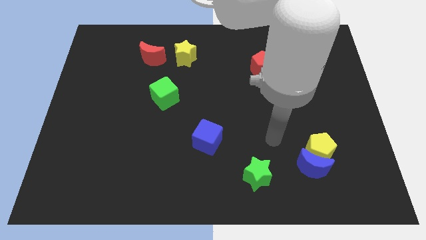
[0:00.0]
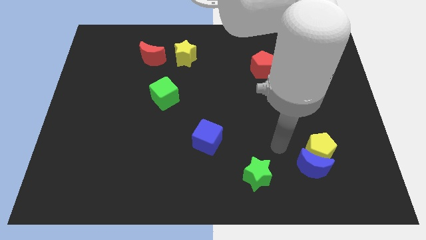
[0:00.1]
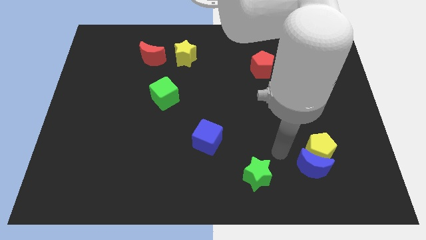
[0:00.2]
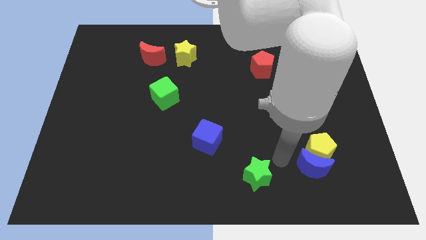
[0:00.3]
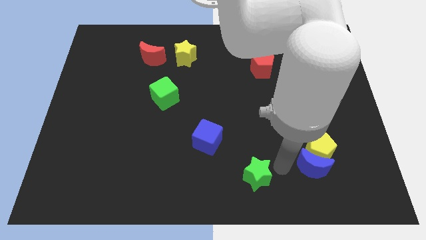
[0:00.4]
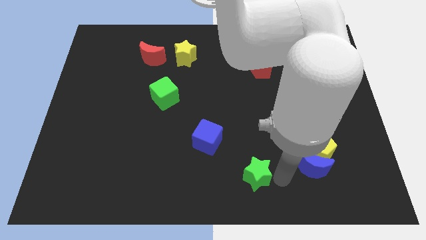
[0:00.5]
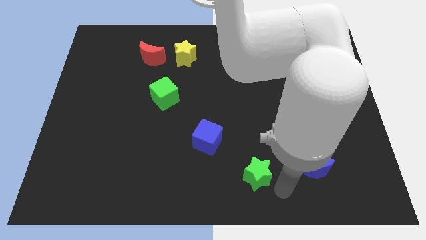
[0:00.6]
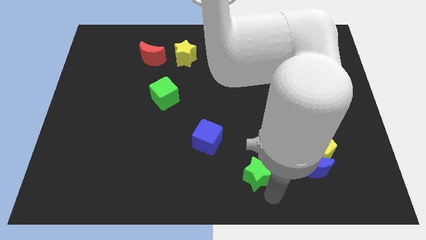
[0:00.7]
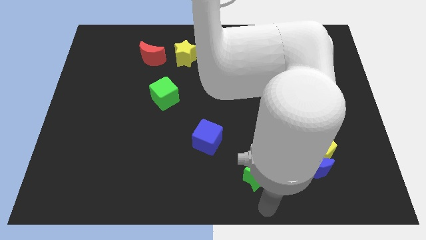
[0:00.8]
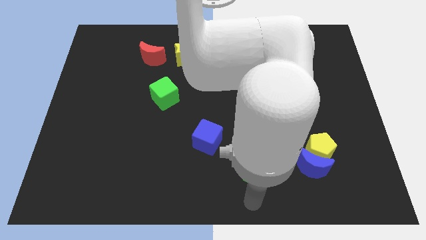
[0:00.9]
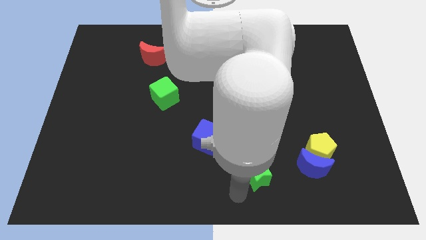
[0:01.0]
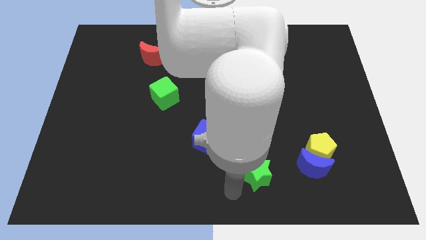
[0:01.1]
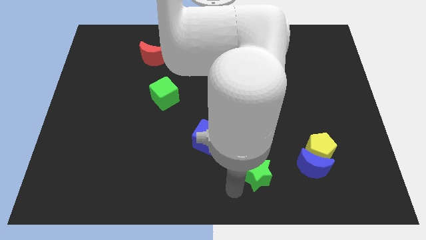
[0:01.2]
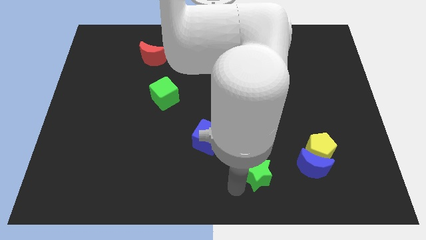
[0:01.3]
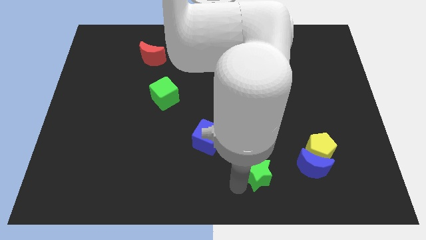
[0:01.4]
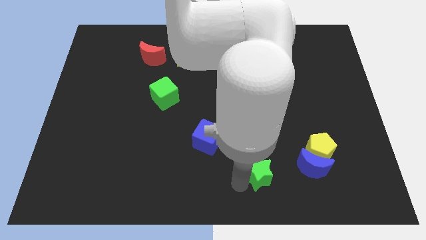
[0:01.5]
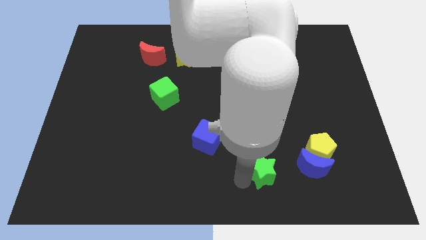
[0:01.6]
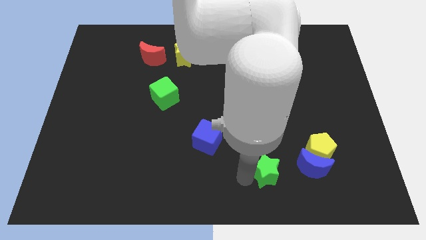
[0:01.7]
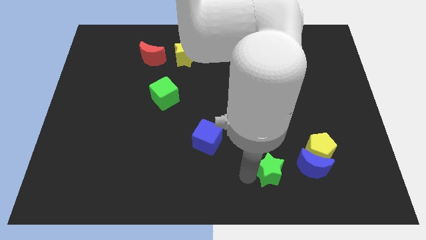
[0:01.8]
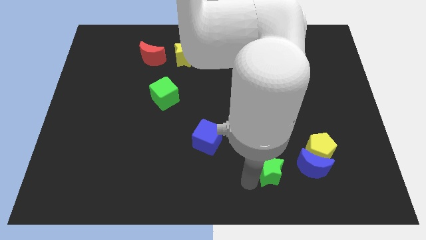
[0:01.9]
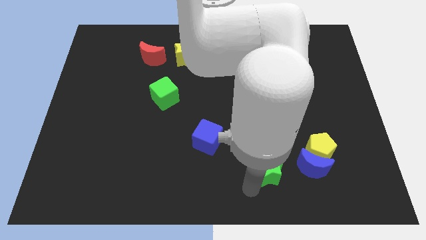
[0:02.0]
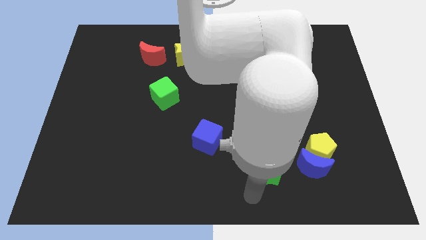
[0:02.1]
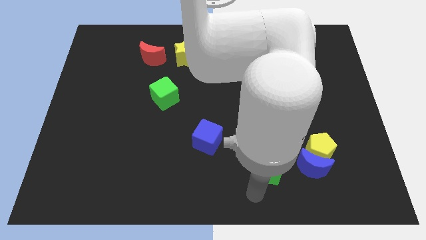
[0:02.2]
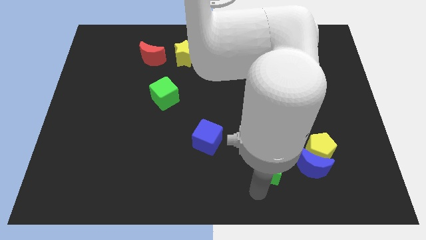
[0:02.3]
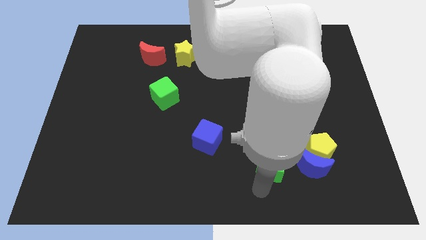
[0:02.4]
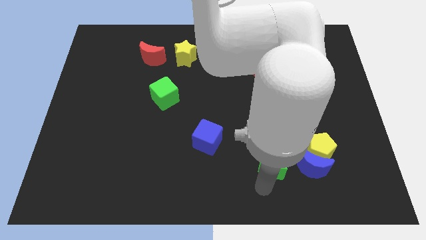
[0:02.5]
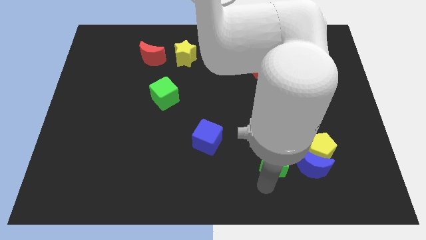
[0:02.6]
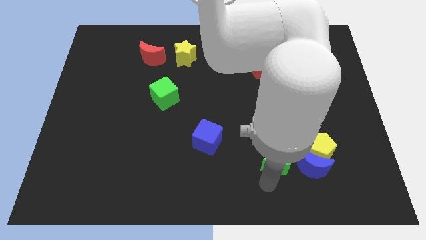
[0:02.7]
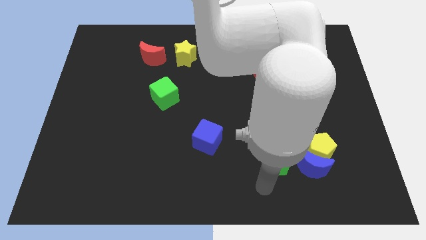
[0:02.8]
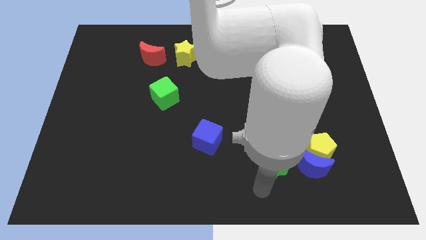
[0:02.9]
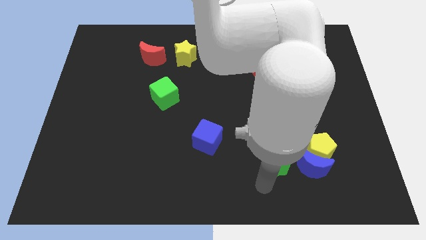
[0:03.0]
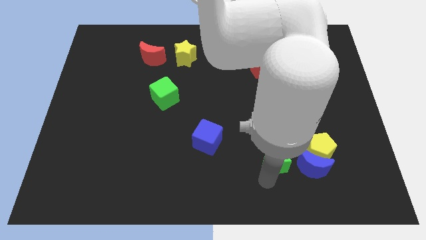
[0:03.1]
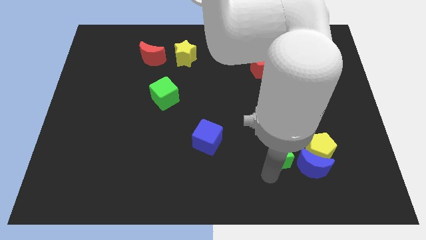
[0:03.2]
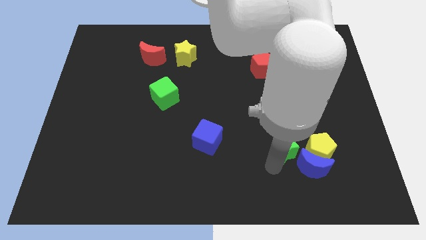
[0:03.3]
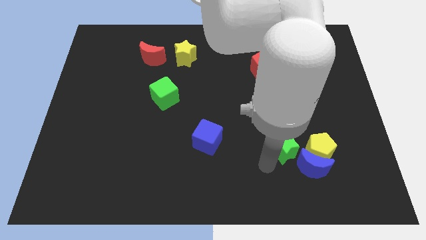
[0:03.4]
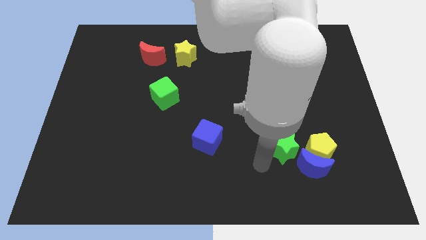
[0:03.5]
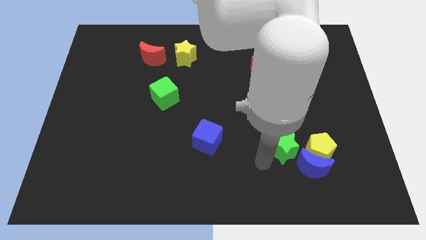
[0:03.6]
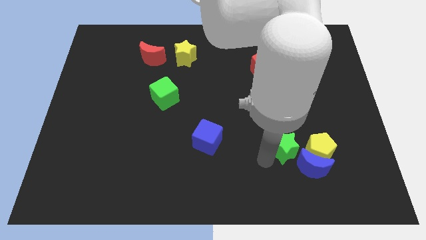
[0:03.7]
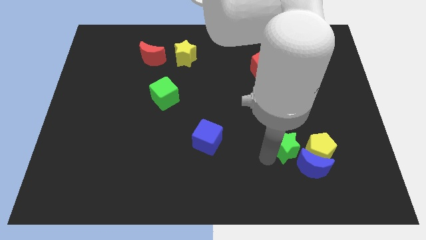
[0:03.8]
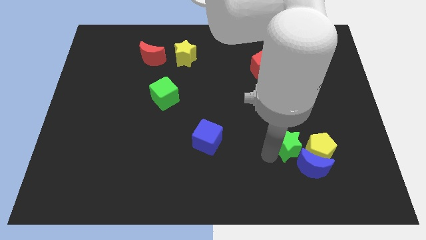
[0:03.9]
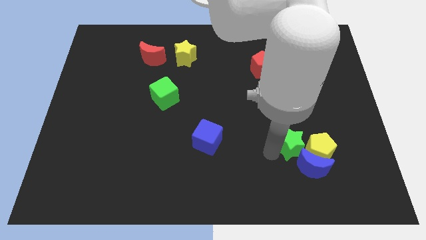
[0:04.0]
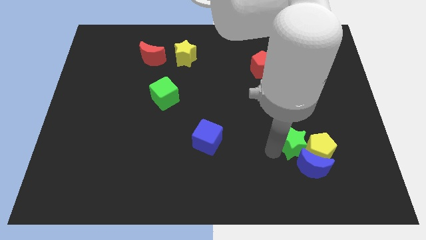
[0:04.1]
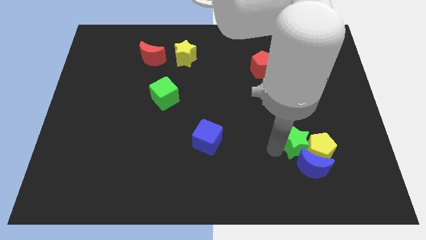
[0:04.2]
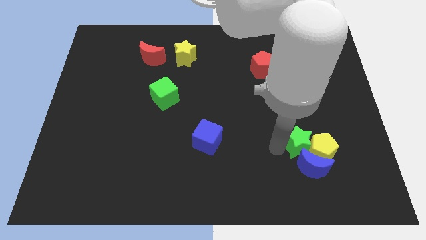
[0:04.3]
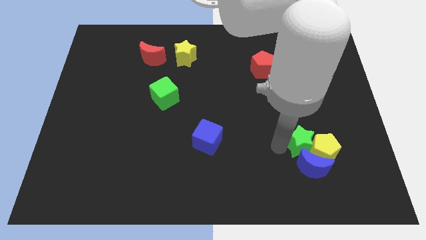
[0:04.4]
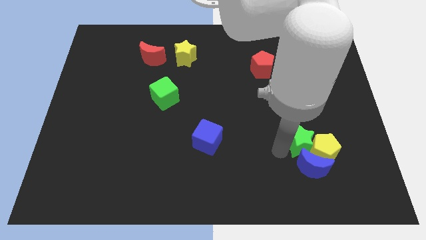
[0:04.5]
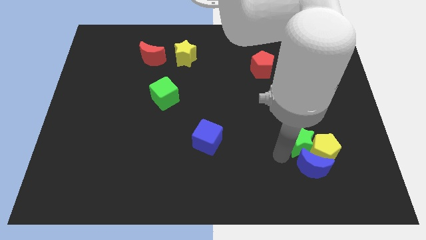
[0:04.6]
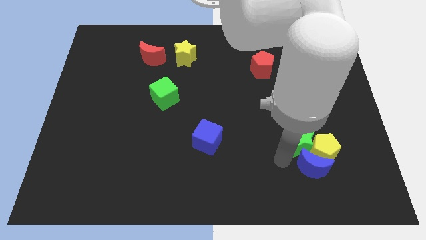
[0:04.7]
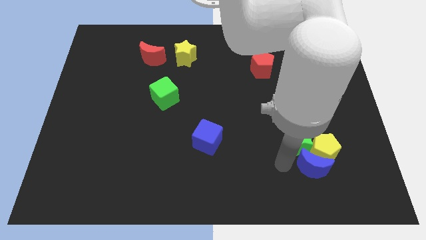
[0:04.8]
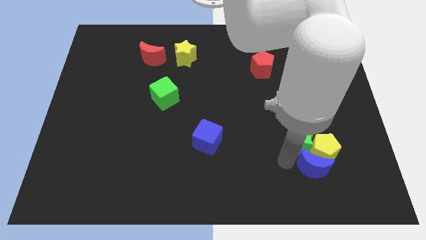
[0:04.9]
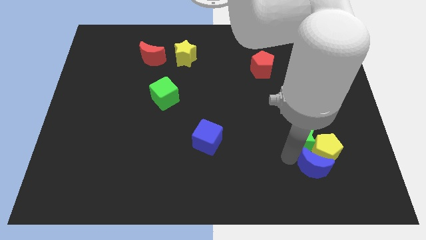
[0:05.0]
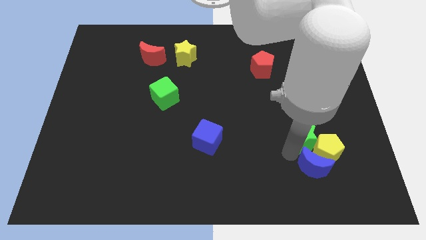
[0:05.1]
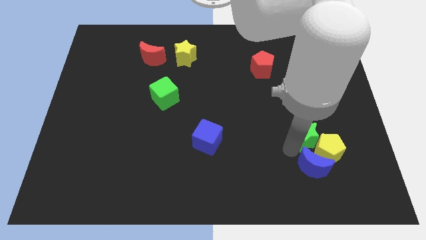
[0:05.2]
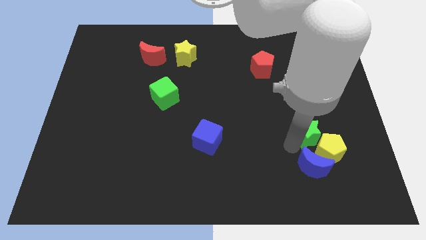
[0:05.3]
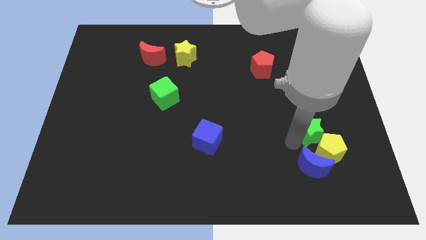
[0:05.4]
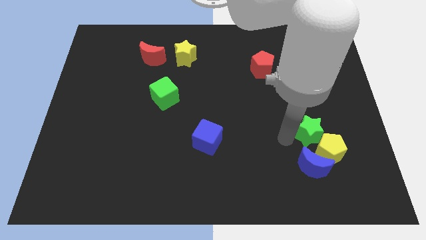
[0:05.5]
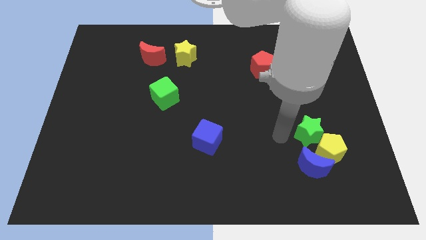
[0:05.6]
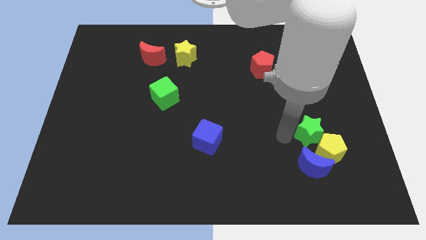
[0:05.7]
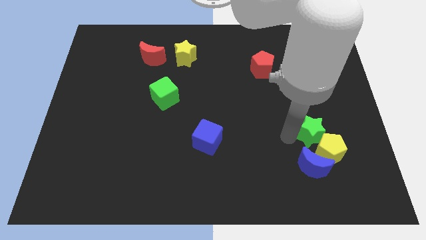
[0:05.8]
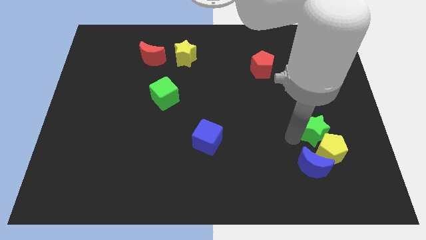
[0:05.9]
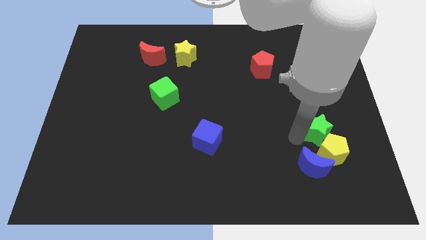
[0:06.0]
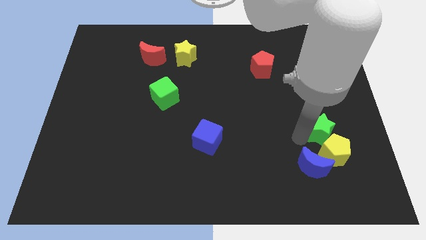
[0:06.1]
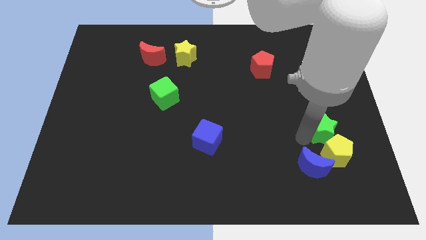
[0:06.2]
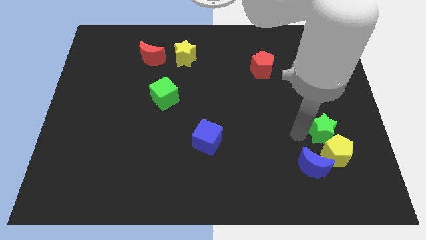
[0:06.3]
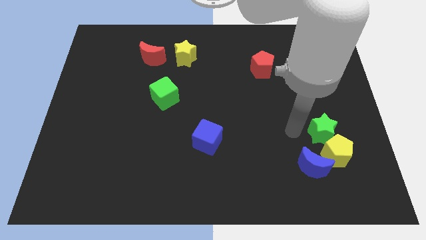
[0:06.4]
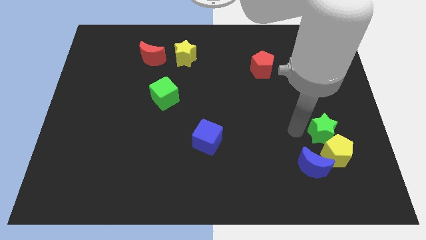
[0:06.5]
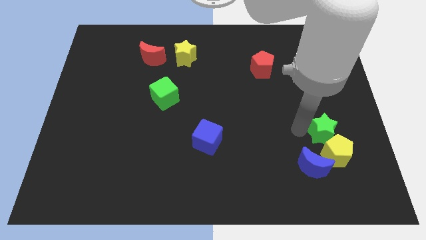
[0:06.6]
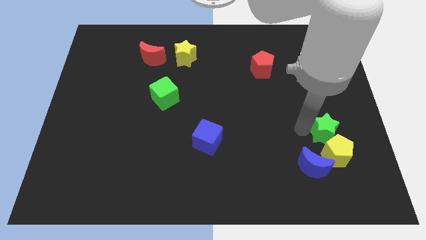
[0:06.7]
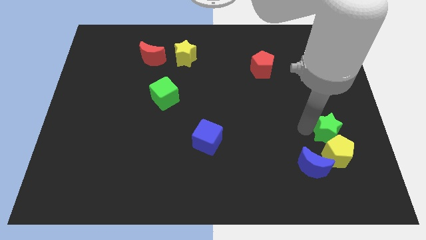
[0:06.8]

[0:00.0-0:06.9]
push the green star diagonally up and to the right of the yellow pentagon
